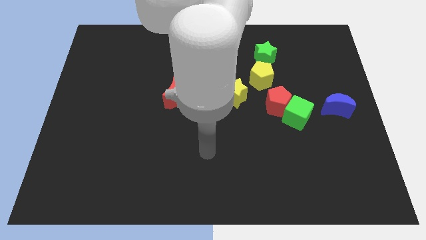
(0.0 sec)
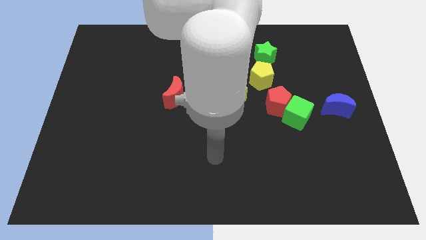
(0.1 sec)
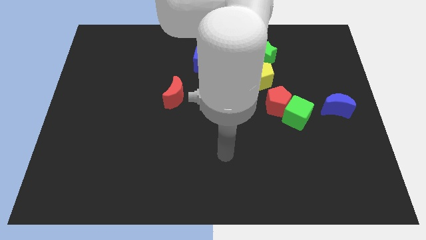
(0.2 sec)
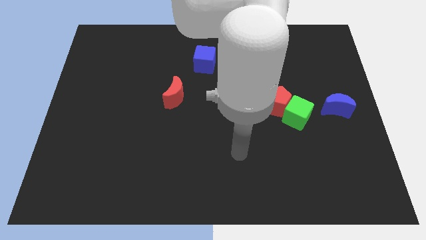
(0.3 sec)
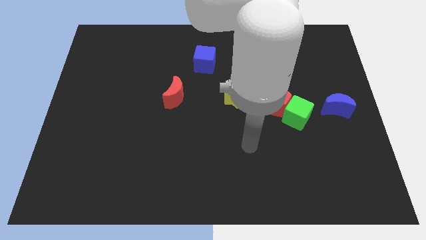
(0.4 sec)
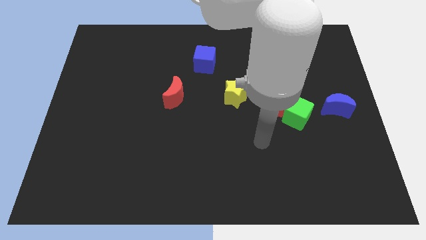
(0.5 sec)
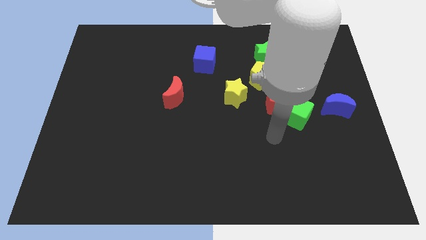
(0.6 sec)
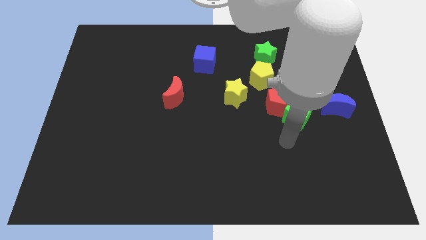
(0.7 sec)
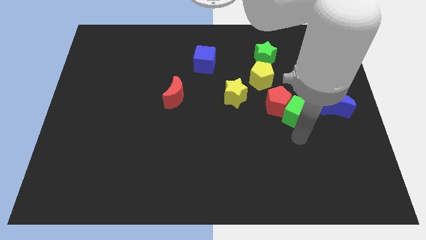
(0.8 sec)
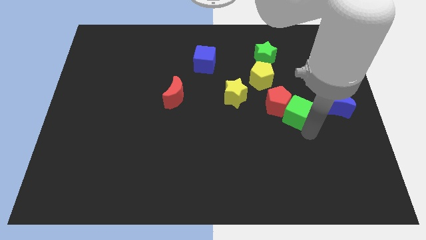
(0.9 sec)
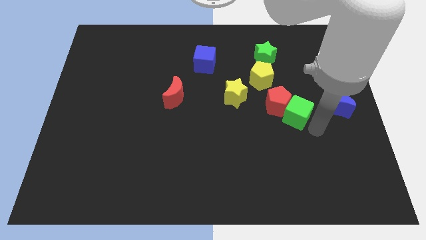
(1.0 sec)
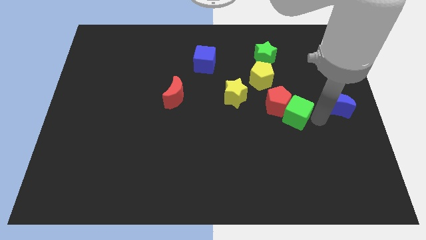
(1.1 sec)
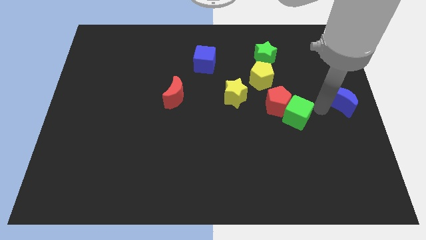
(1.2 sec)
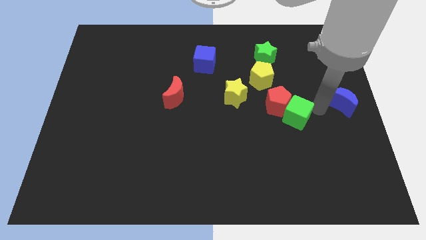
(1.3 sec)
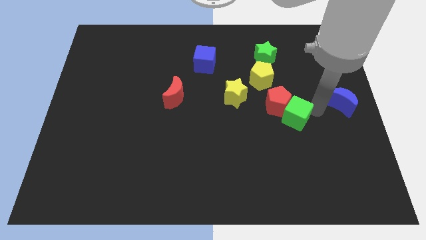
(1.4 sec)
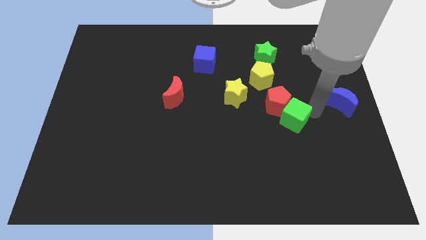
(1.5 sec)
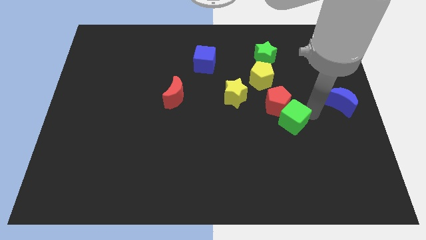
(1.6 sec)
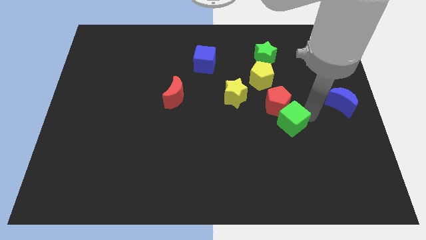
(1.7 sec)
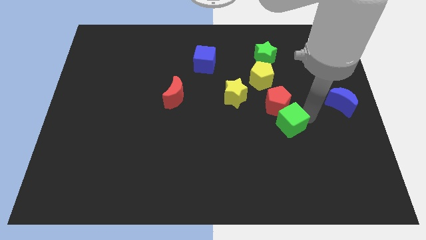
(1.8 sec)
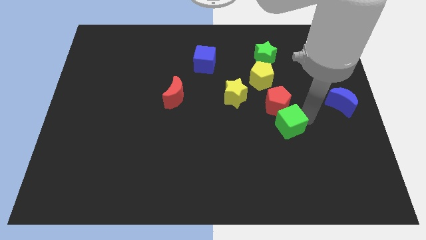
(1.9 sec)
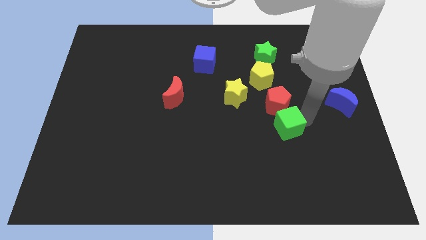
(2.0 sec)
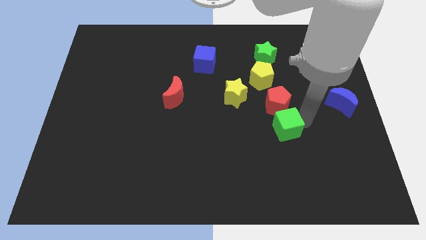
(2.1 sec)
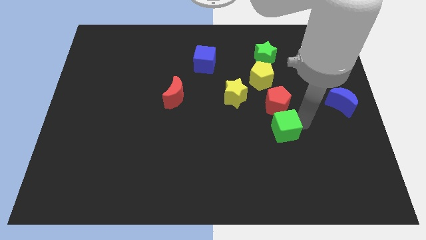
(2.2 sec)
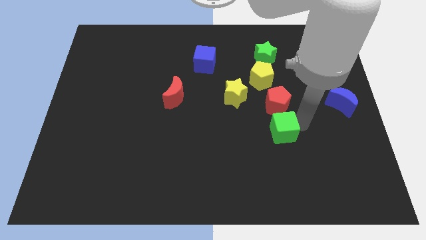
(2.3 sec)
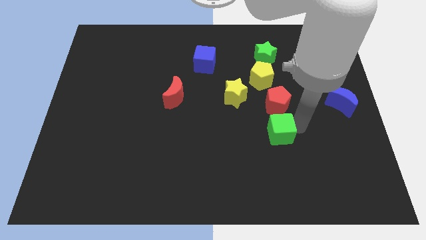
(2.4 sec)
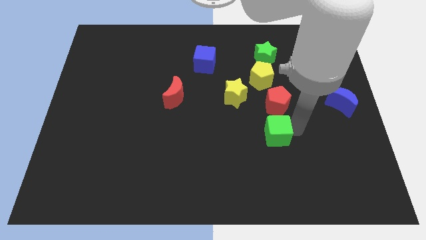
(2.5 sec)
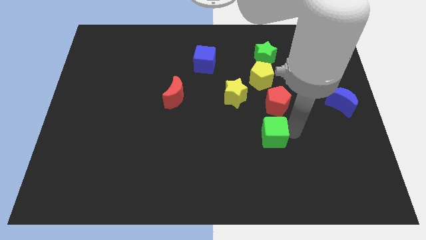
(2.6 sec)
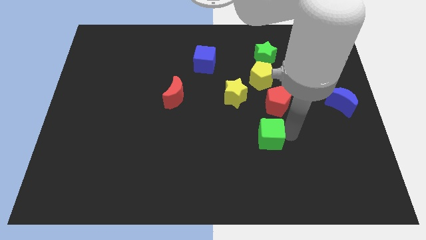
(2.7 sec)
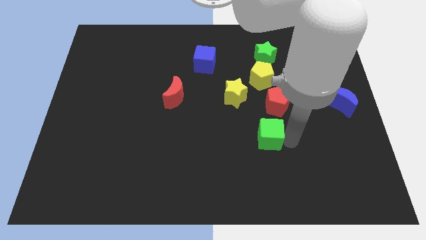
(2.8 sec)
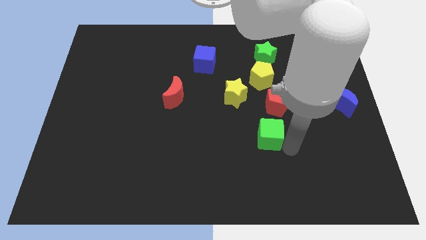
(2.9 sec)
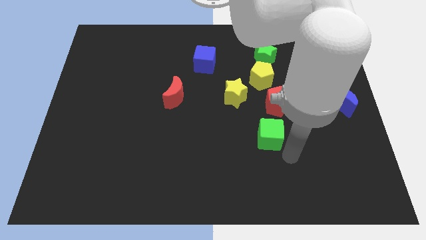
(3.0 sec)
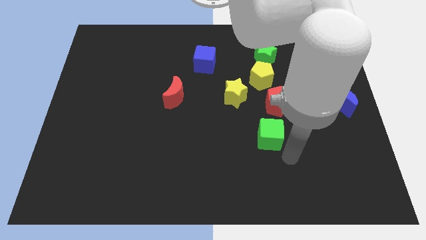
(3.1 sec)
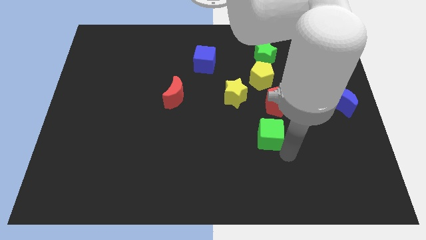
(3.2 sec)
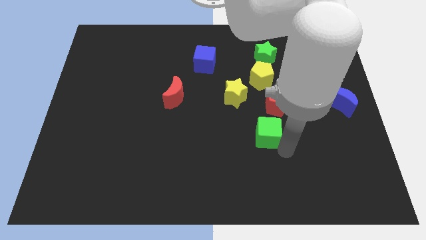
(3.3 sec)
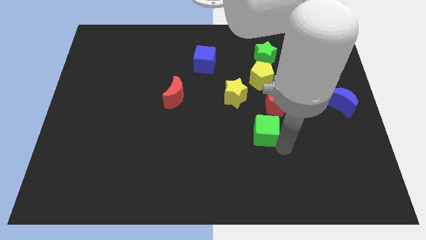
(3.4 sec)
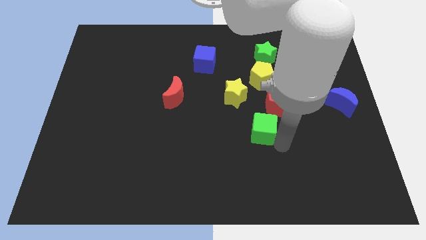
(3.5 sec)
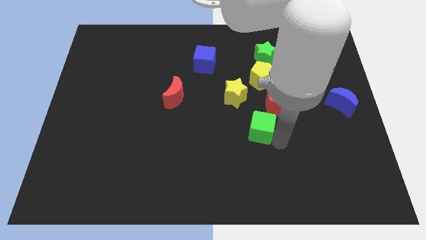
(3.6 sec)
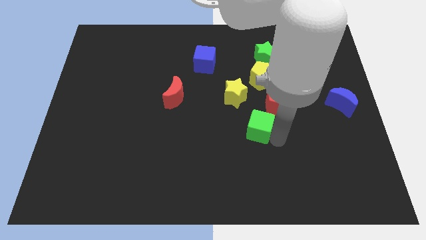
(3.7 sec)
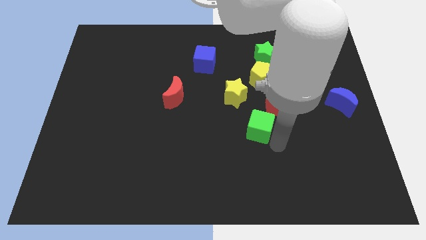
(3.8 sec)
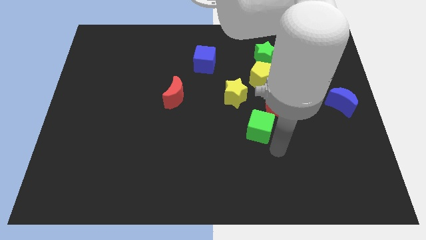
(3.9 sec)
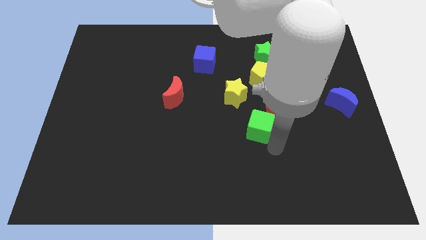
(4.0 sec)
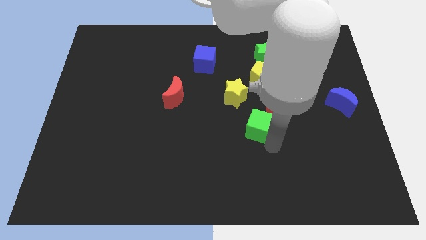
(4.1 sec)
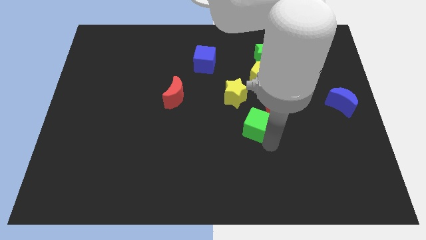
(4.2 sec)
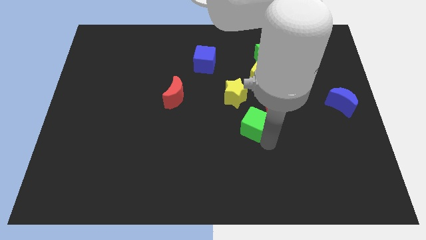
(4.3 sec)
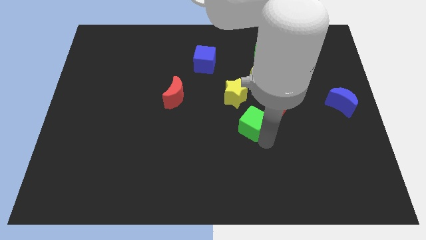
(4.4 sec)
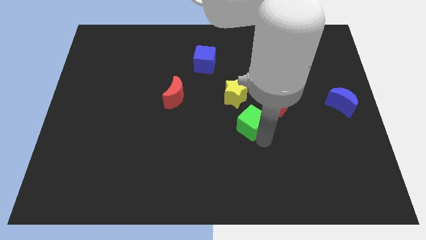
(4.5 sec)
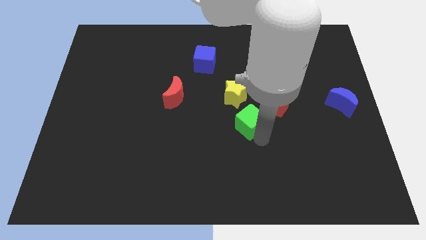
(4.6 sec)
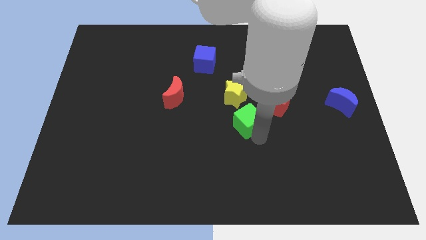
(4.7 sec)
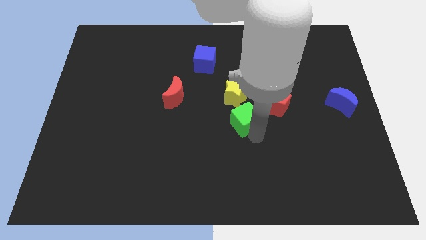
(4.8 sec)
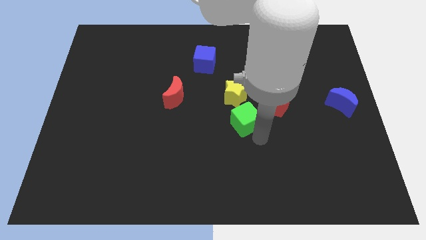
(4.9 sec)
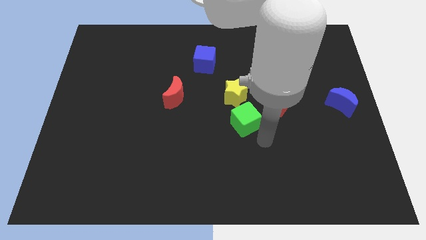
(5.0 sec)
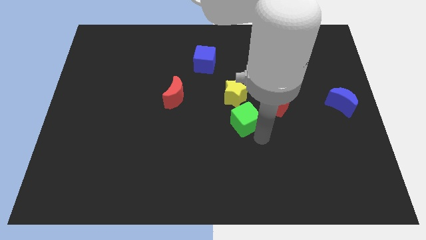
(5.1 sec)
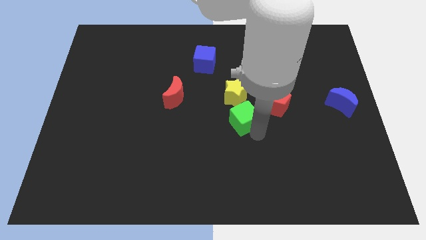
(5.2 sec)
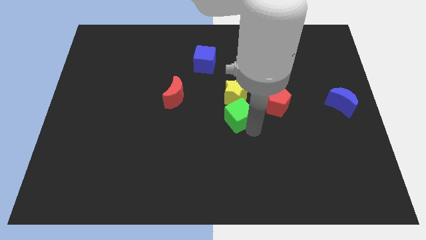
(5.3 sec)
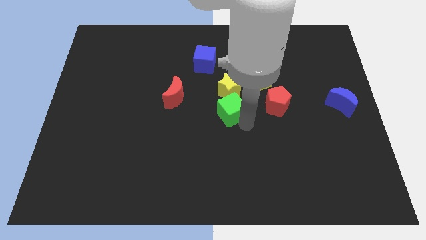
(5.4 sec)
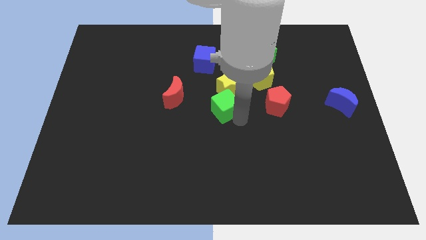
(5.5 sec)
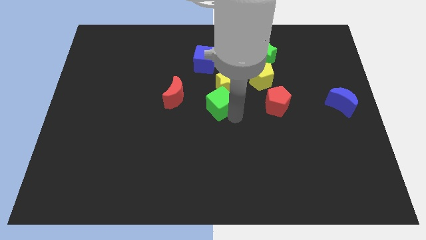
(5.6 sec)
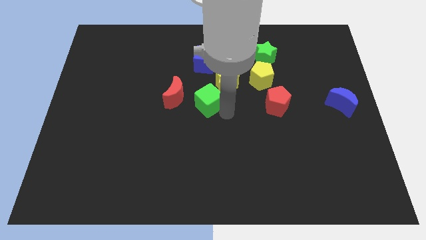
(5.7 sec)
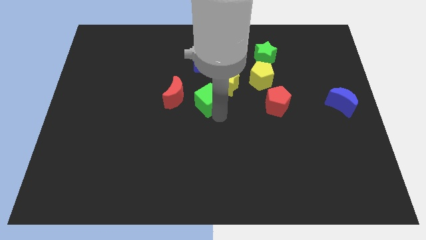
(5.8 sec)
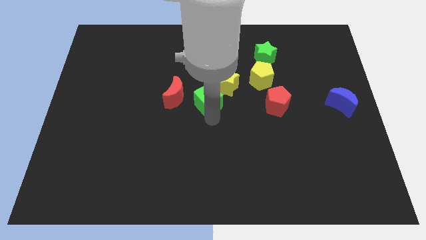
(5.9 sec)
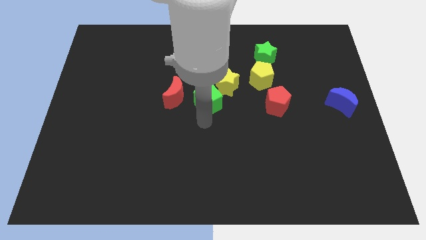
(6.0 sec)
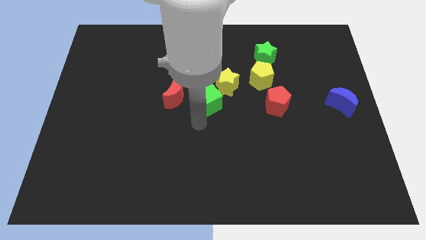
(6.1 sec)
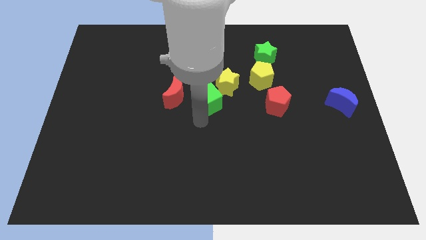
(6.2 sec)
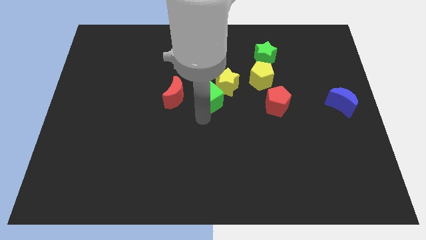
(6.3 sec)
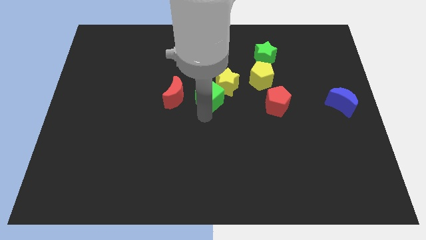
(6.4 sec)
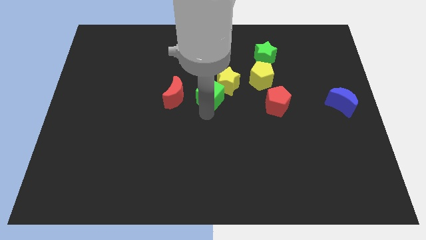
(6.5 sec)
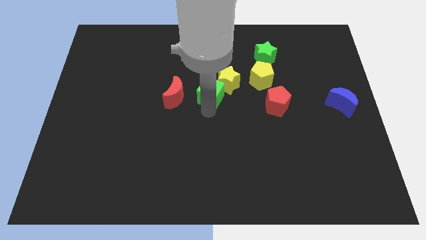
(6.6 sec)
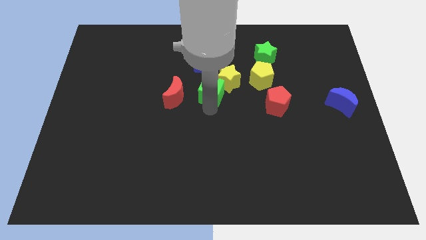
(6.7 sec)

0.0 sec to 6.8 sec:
push the green cube to the left of the yellow pentagon
